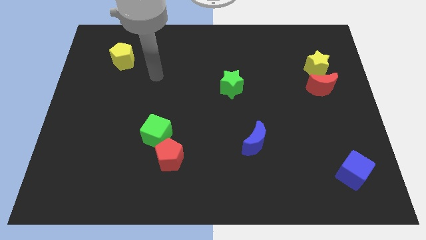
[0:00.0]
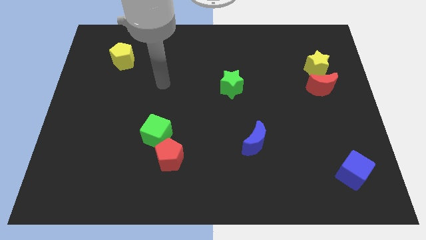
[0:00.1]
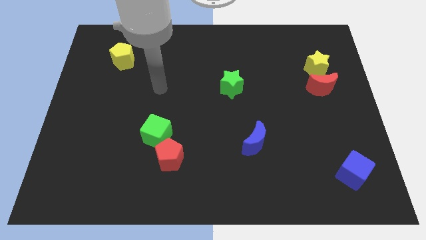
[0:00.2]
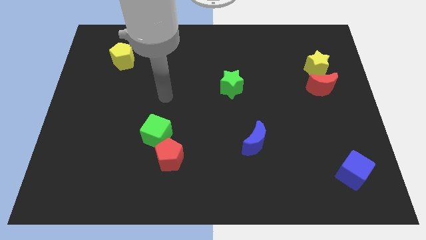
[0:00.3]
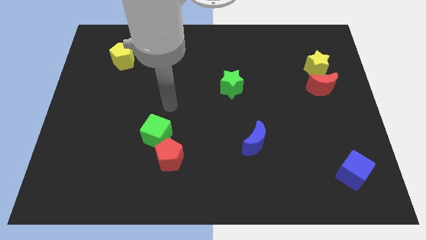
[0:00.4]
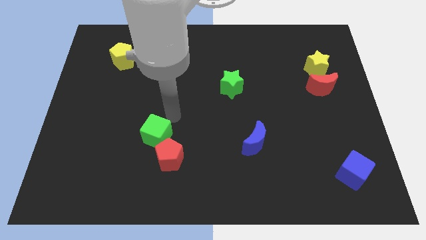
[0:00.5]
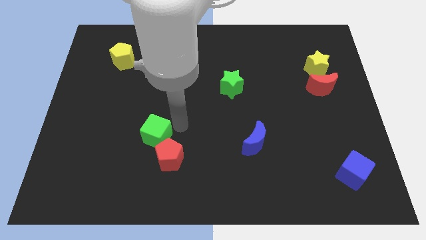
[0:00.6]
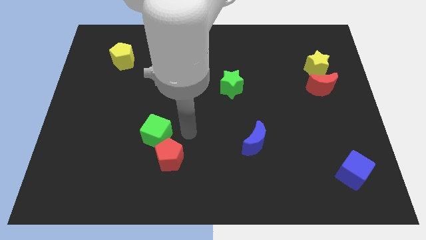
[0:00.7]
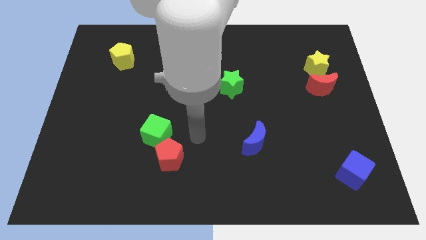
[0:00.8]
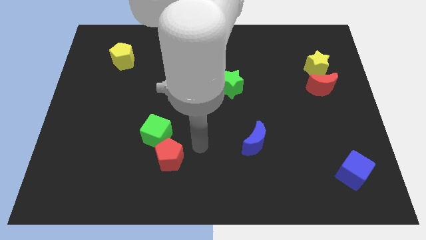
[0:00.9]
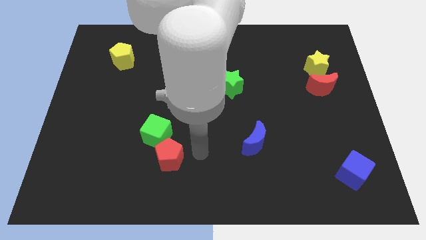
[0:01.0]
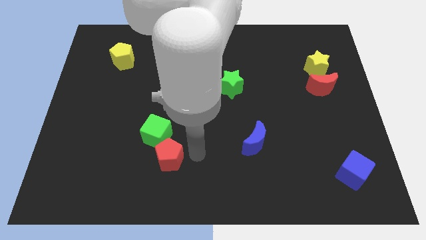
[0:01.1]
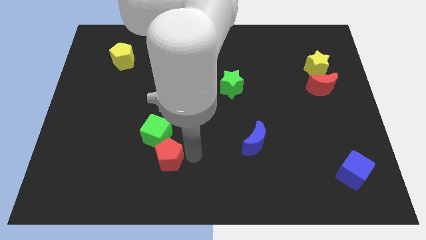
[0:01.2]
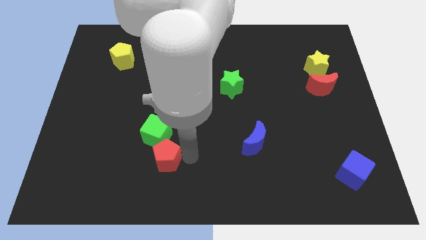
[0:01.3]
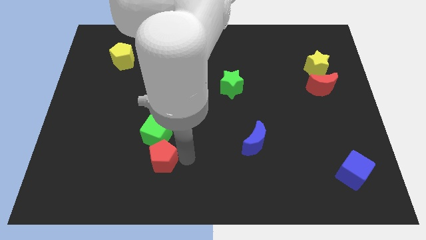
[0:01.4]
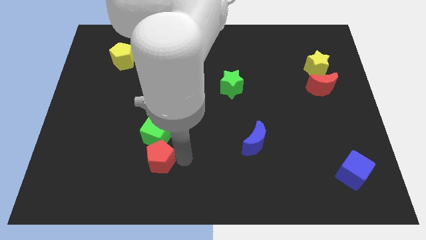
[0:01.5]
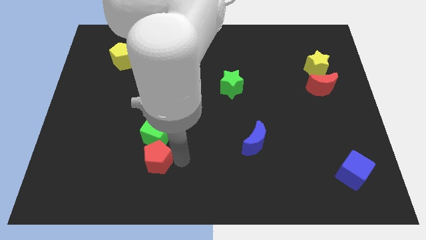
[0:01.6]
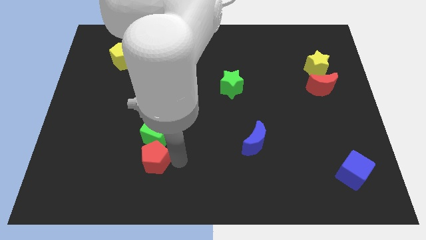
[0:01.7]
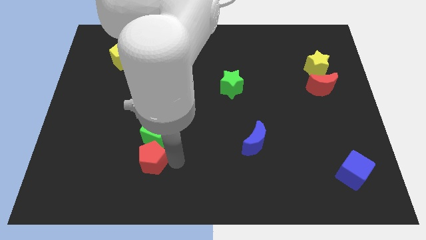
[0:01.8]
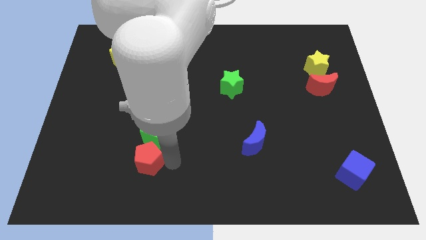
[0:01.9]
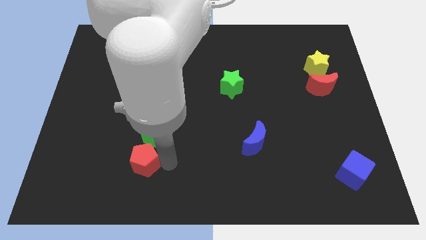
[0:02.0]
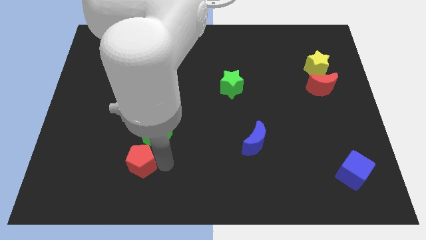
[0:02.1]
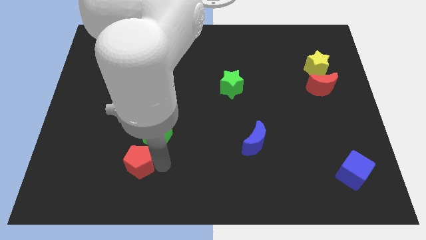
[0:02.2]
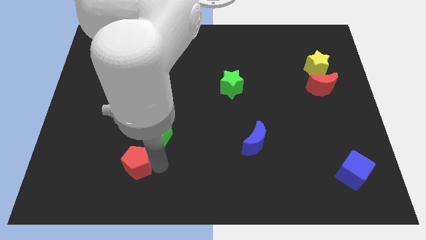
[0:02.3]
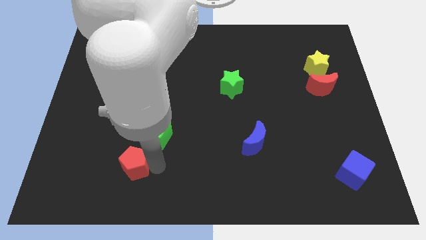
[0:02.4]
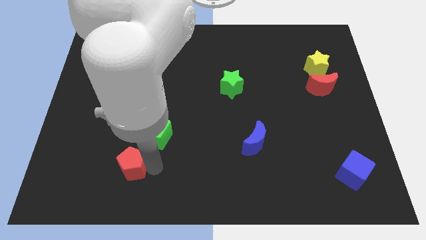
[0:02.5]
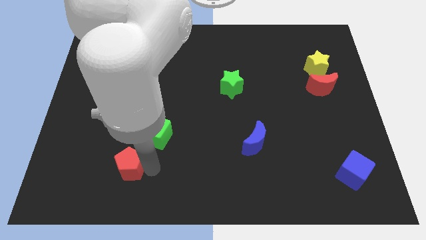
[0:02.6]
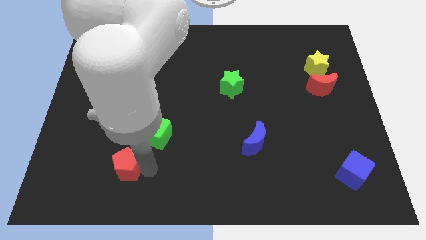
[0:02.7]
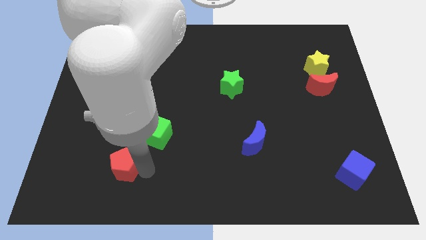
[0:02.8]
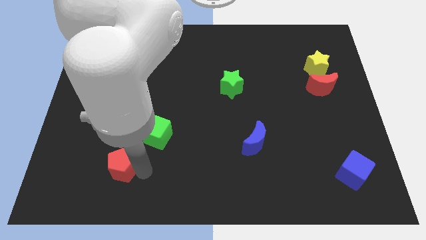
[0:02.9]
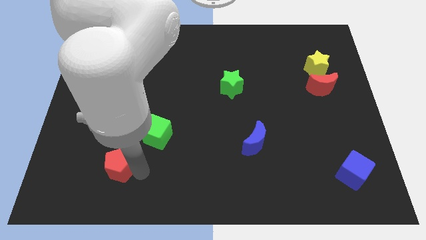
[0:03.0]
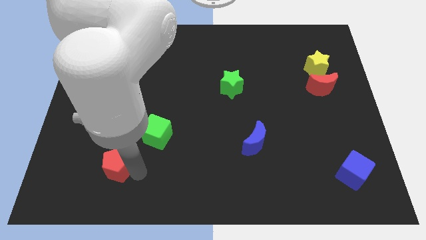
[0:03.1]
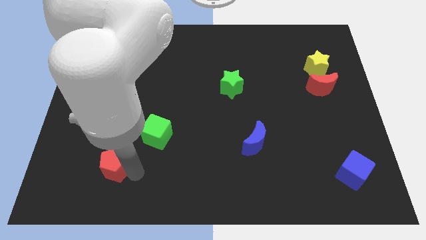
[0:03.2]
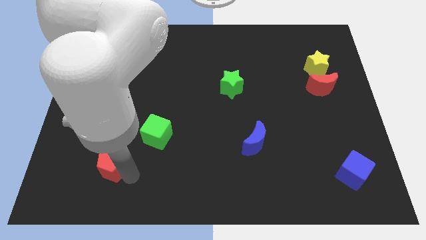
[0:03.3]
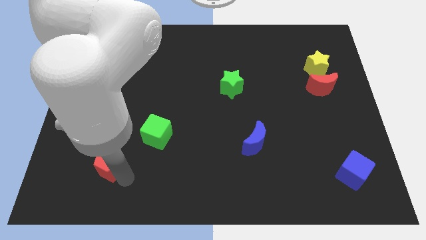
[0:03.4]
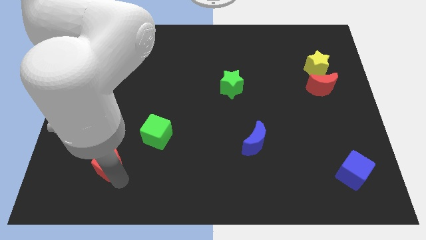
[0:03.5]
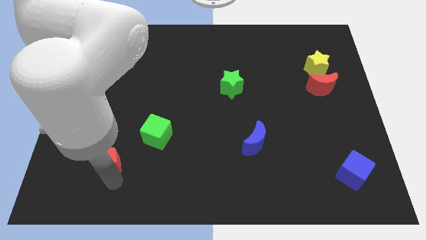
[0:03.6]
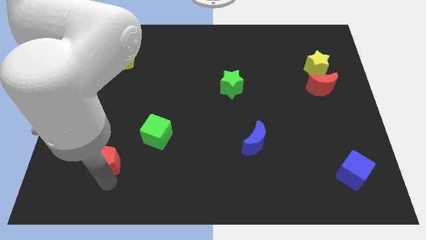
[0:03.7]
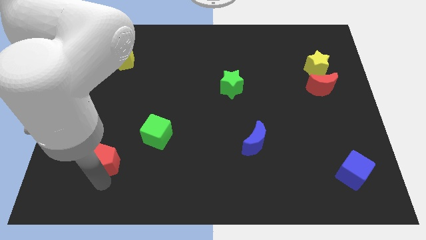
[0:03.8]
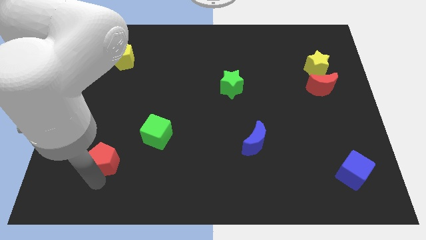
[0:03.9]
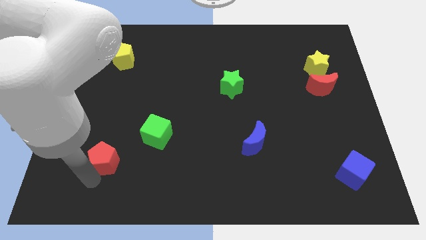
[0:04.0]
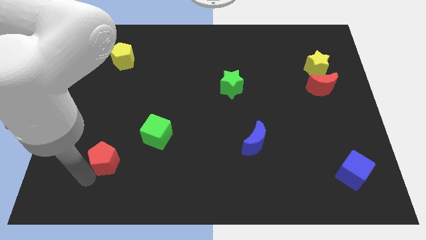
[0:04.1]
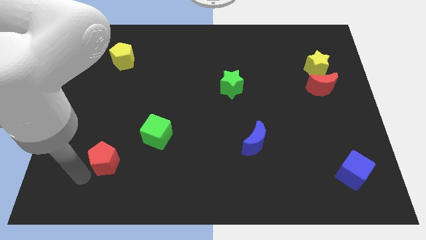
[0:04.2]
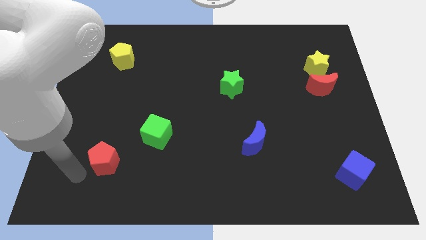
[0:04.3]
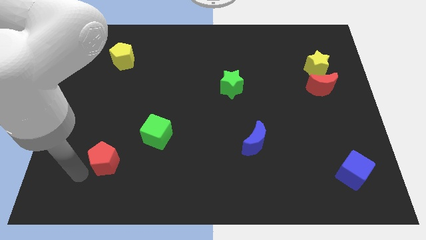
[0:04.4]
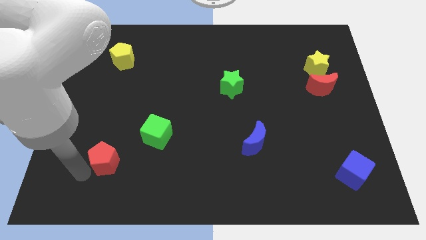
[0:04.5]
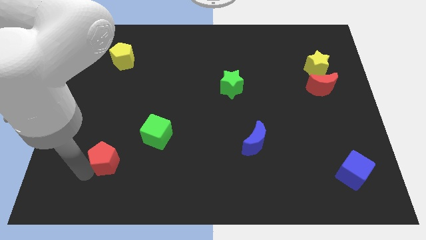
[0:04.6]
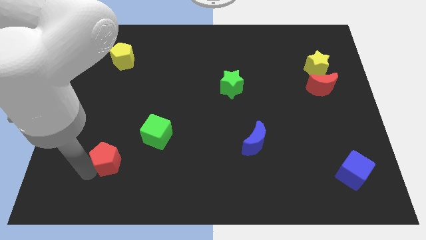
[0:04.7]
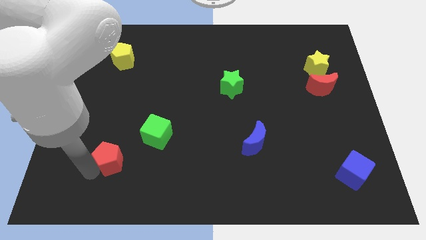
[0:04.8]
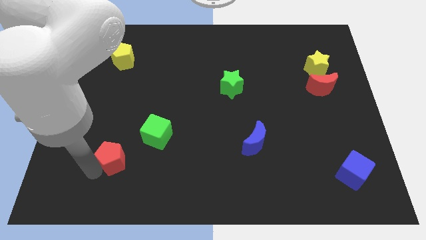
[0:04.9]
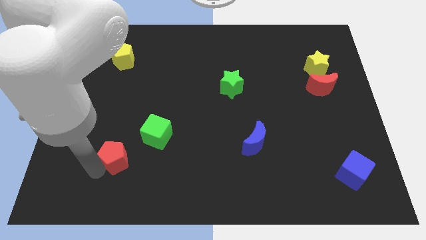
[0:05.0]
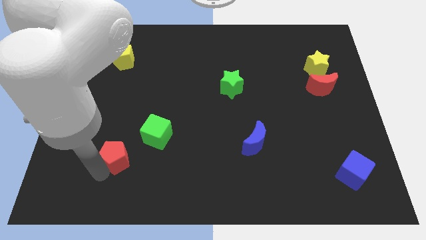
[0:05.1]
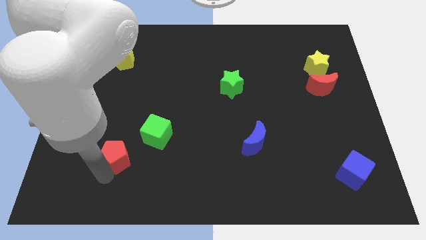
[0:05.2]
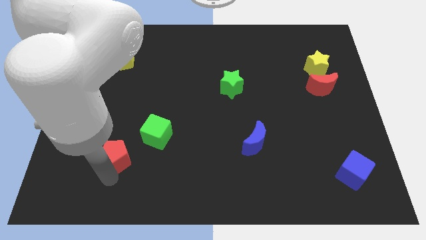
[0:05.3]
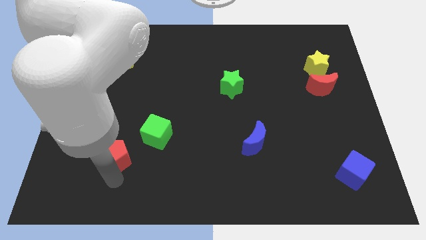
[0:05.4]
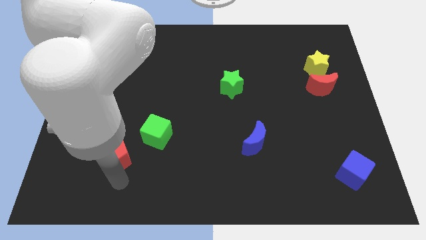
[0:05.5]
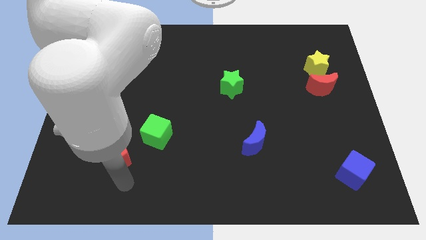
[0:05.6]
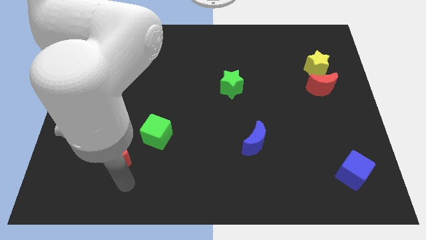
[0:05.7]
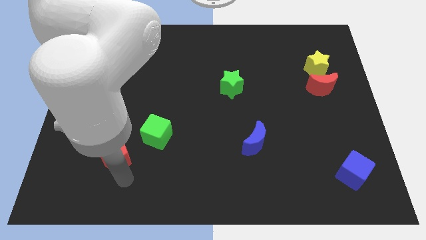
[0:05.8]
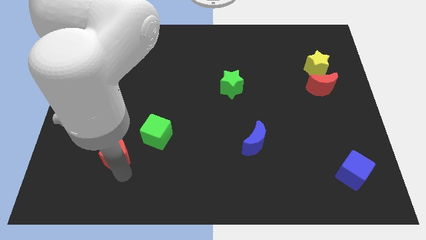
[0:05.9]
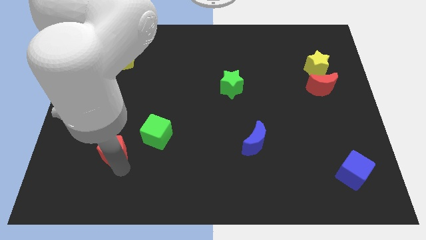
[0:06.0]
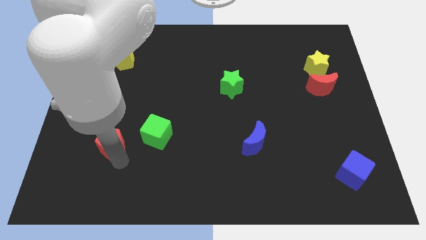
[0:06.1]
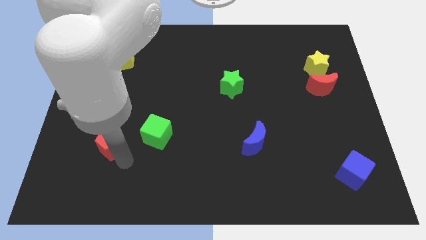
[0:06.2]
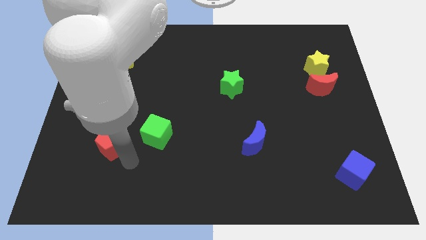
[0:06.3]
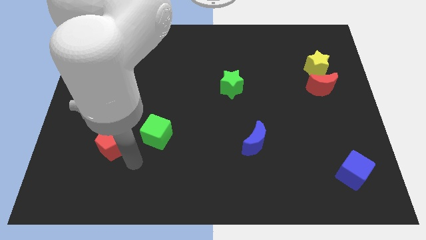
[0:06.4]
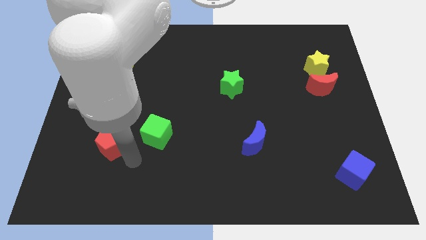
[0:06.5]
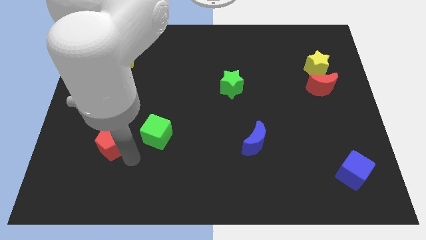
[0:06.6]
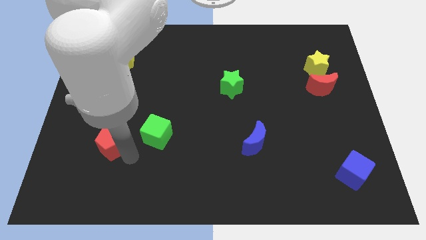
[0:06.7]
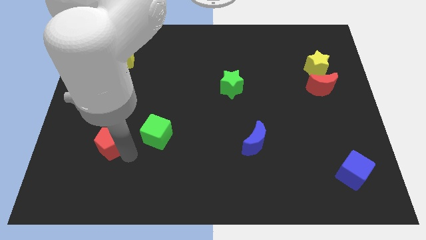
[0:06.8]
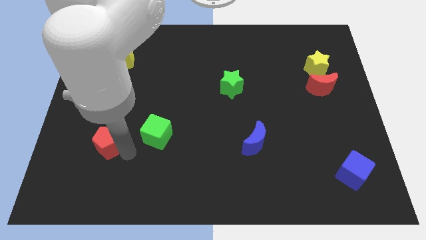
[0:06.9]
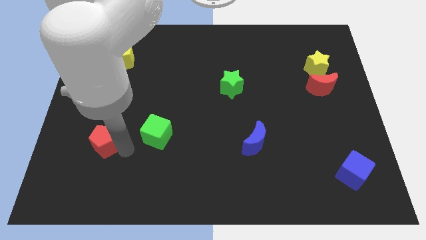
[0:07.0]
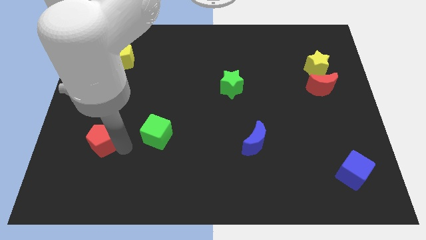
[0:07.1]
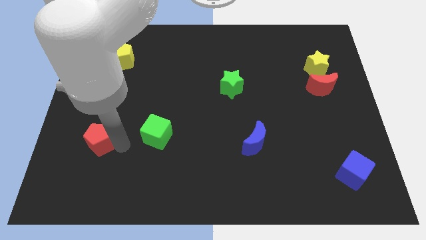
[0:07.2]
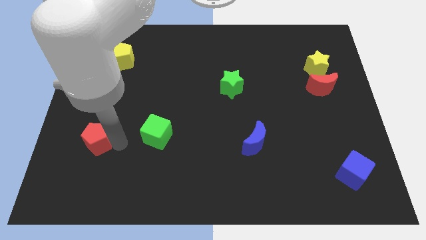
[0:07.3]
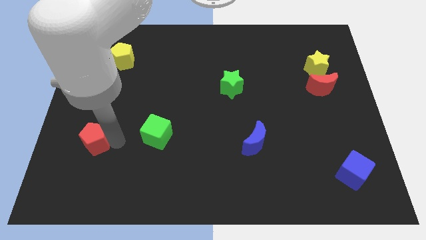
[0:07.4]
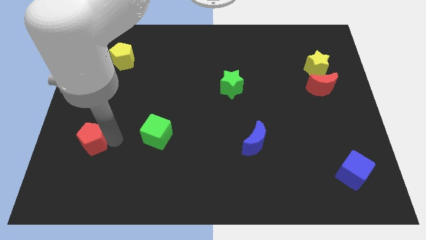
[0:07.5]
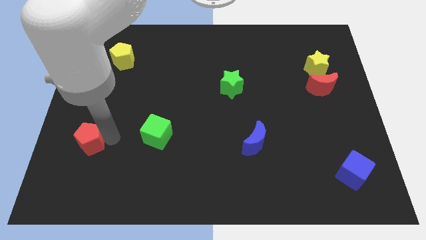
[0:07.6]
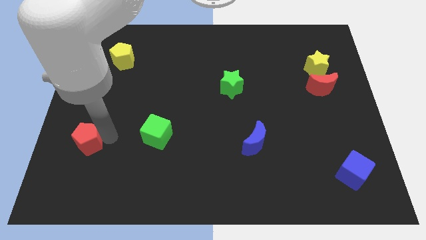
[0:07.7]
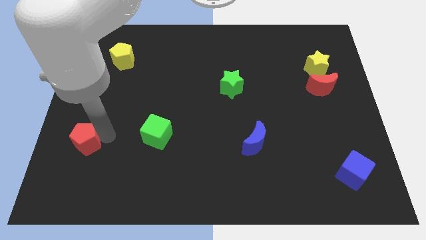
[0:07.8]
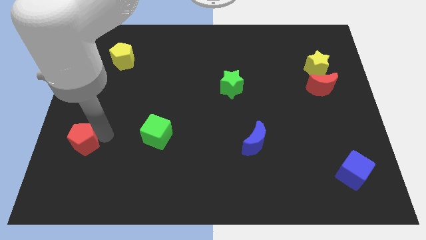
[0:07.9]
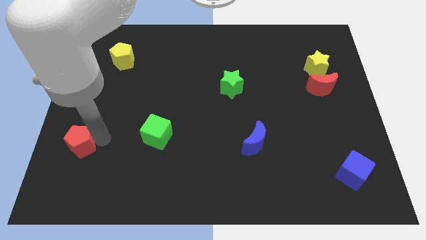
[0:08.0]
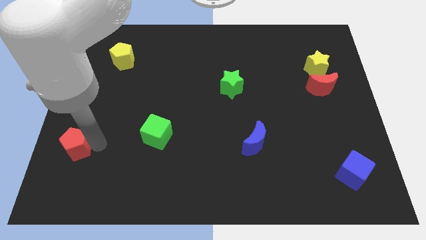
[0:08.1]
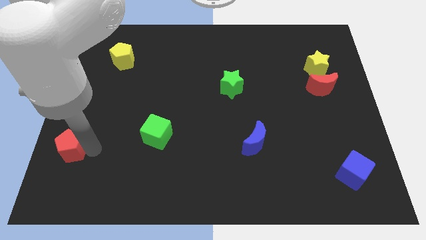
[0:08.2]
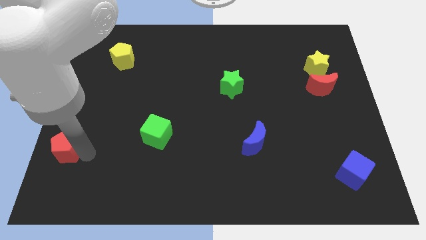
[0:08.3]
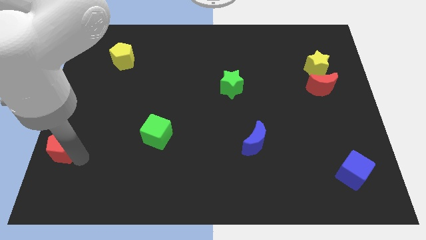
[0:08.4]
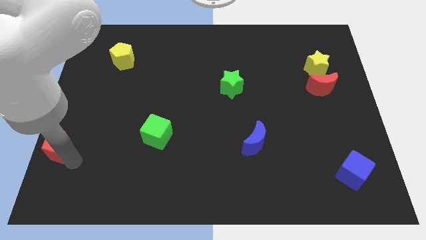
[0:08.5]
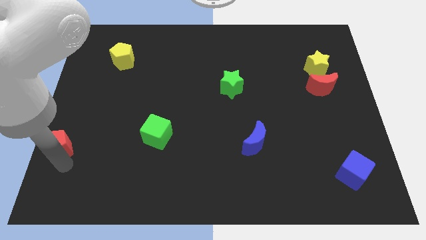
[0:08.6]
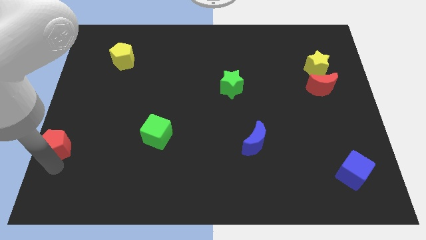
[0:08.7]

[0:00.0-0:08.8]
put the red pentagon to the left side
